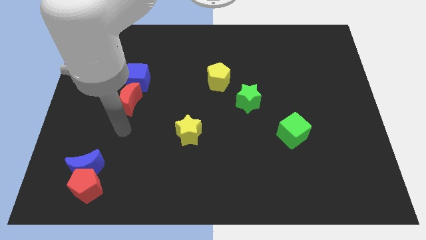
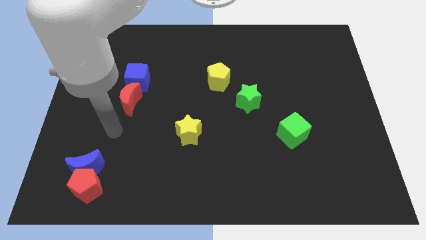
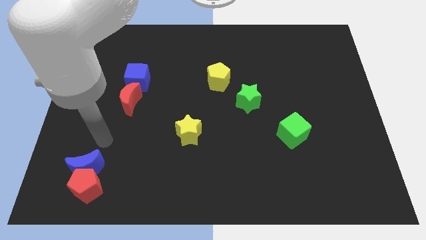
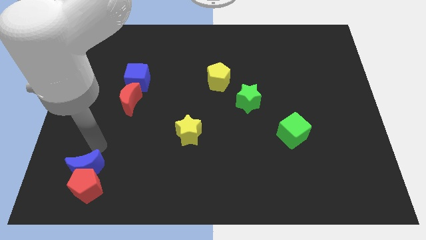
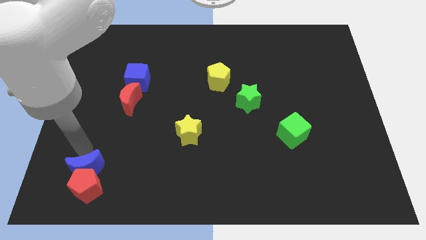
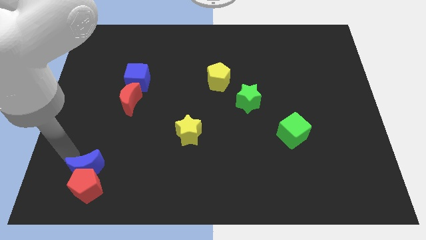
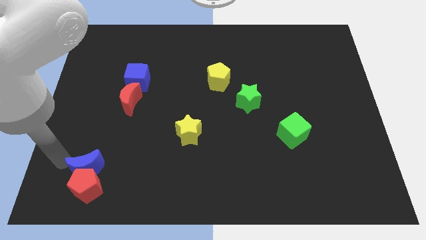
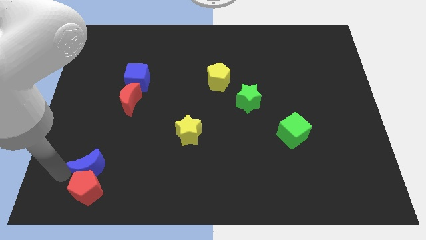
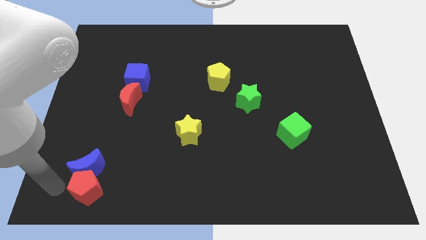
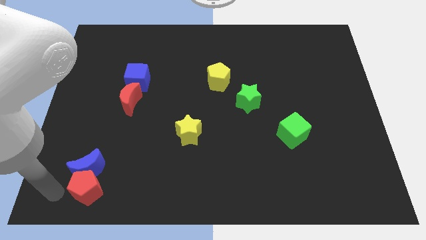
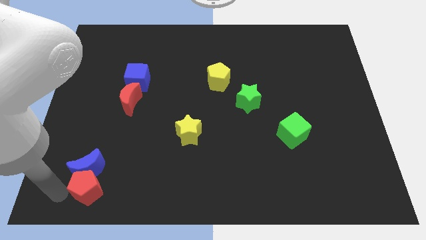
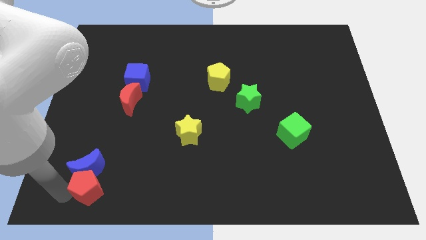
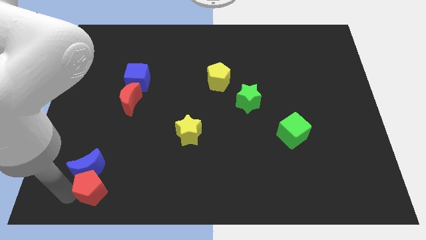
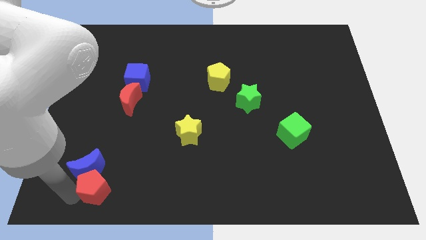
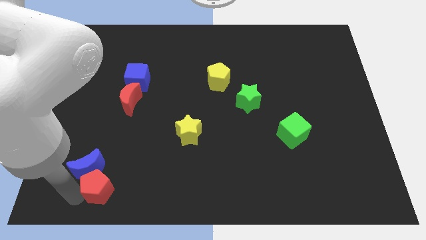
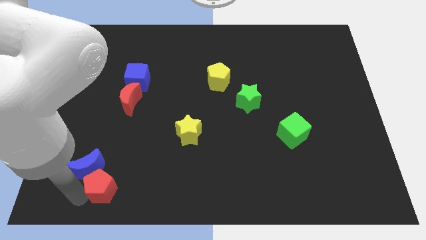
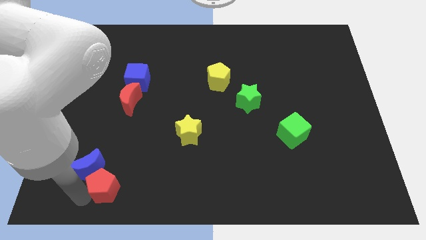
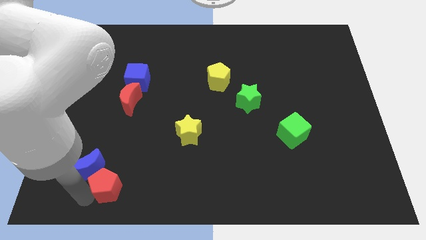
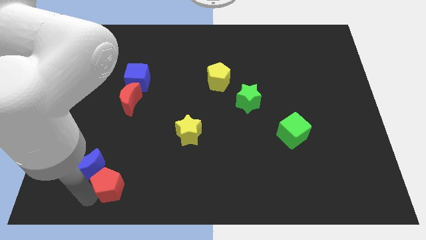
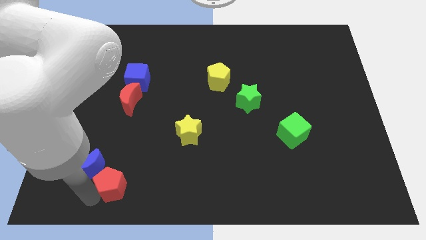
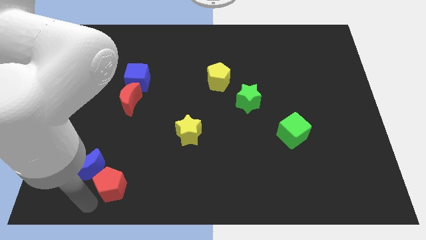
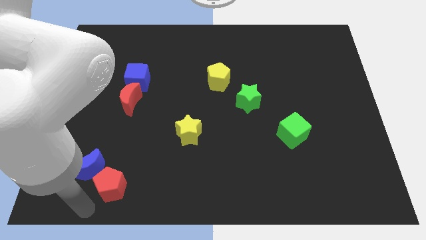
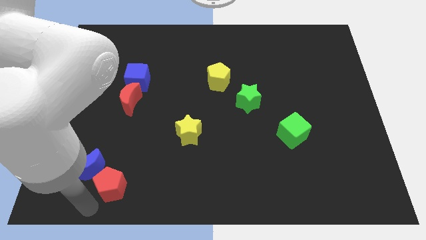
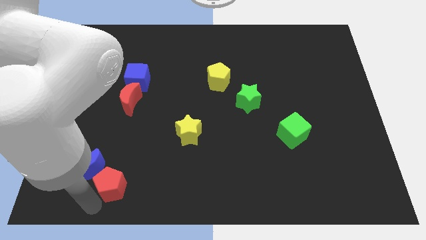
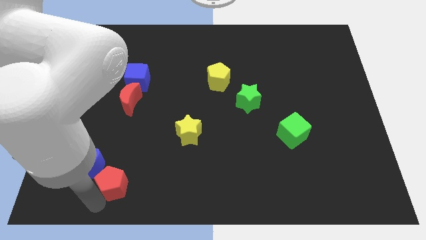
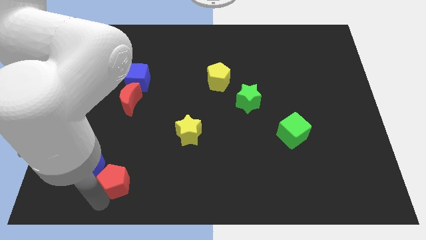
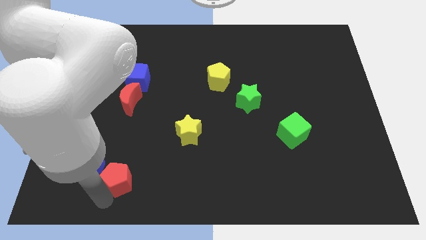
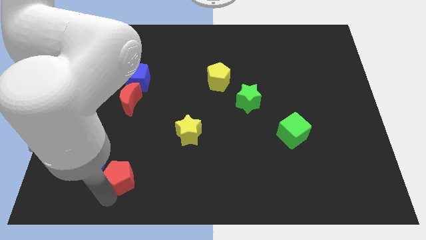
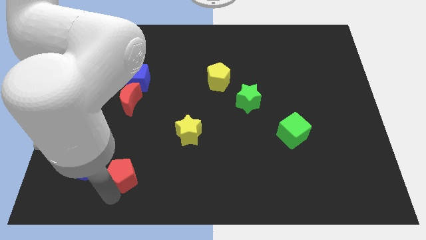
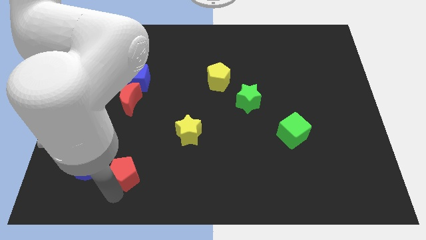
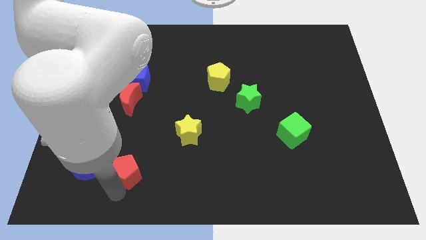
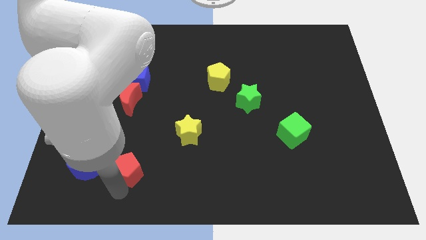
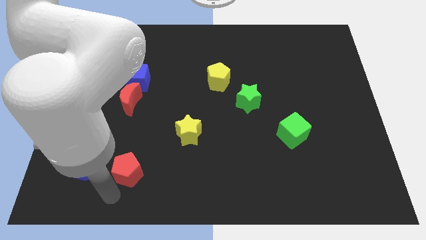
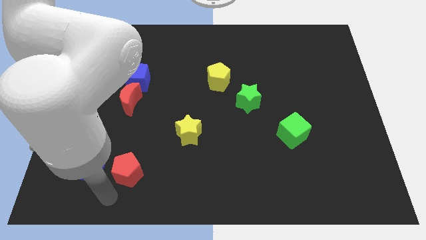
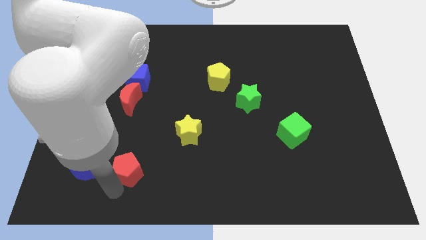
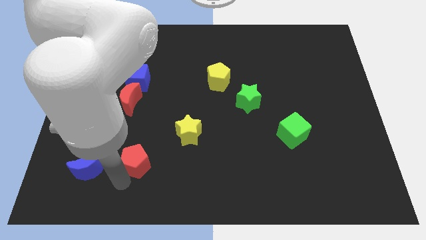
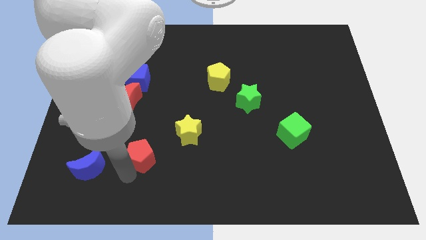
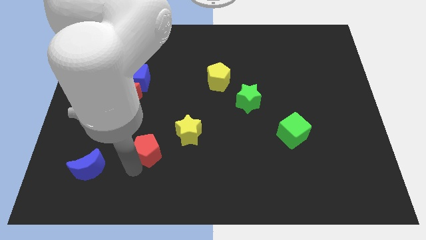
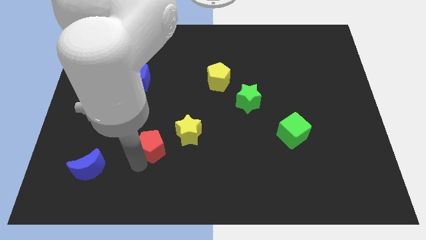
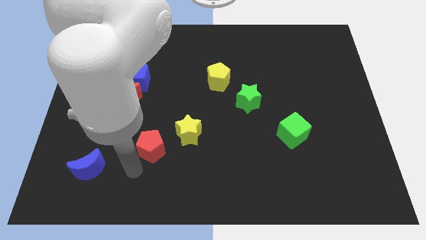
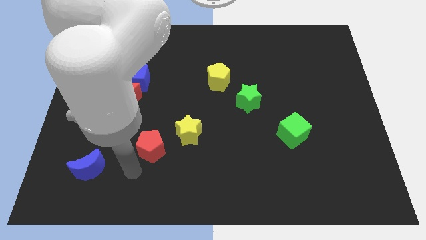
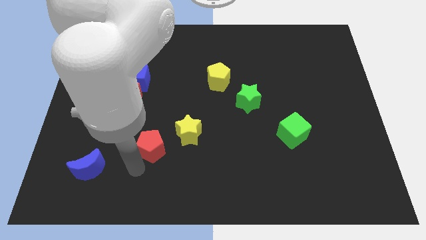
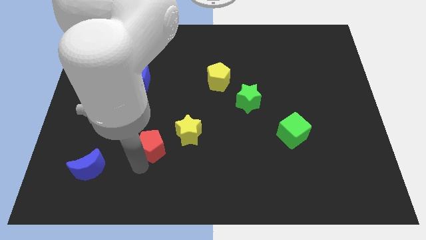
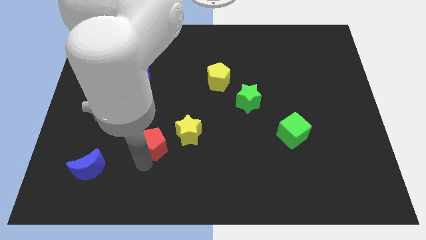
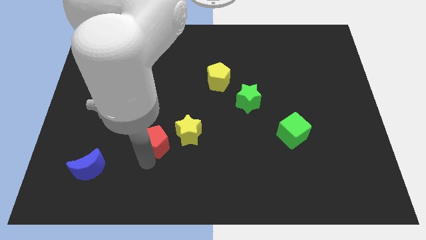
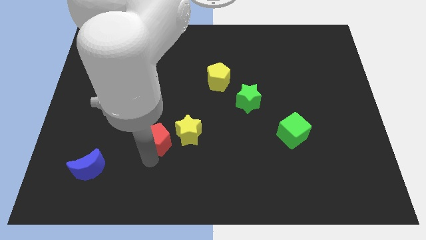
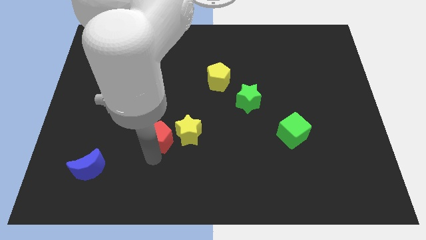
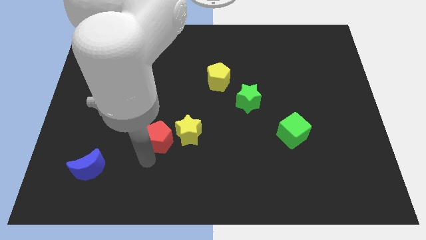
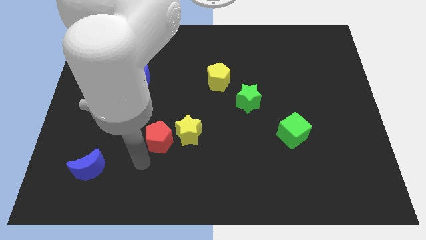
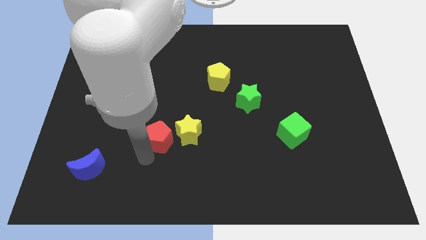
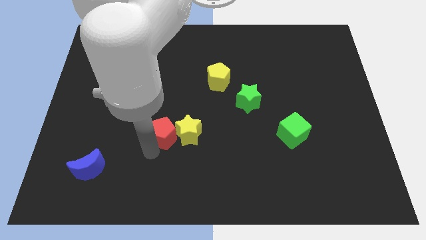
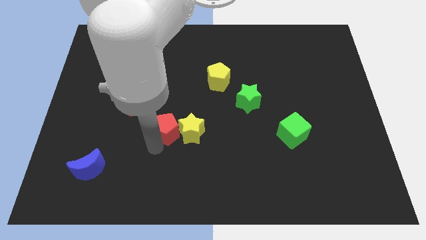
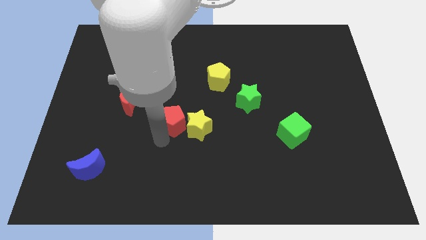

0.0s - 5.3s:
move the red pentagon to the center of the board

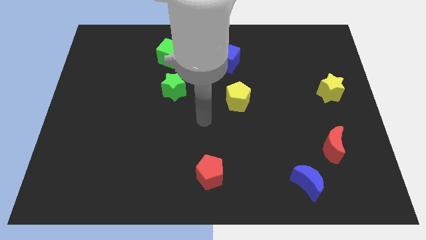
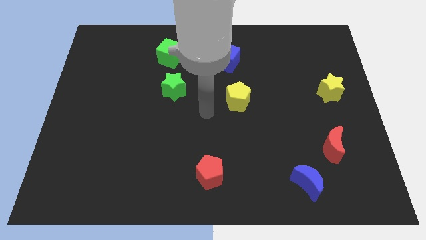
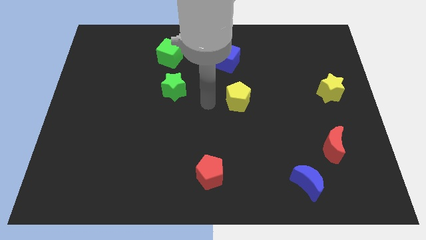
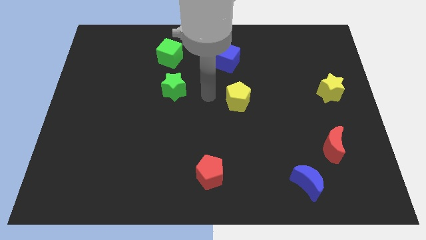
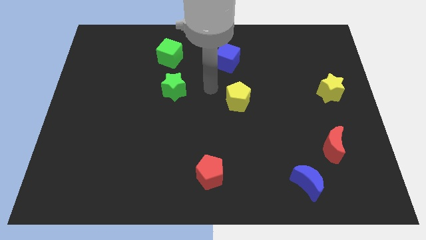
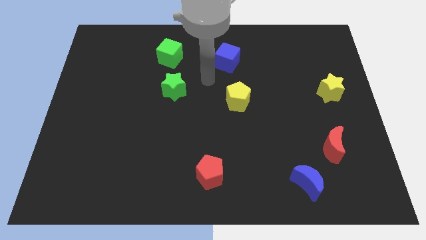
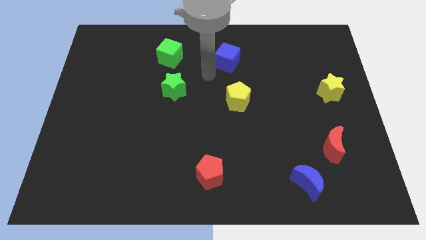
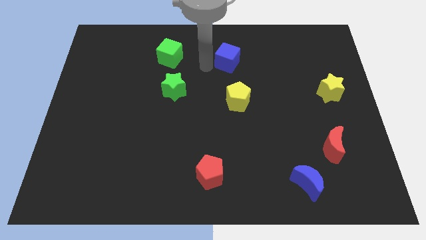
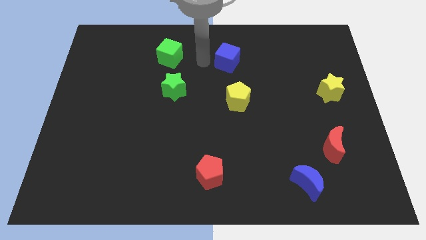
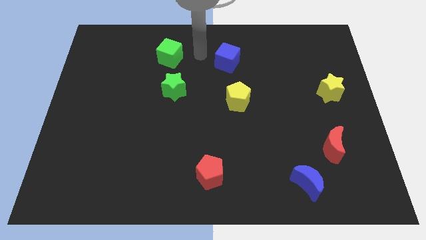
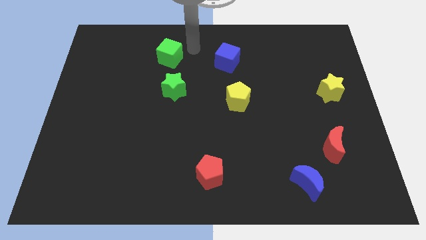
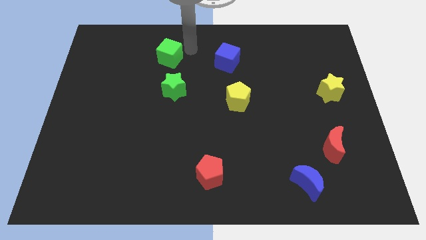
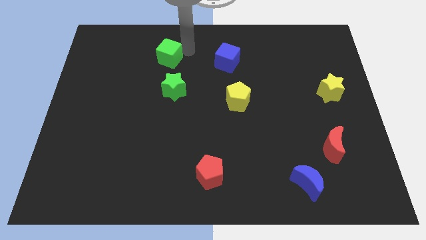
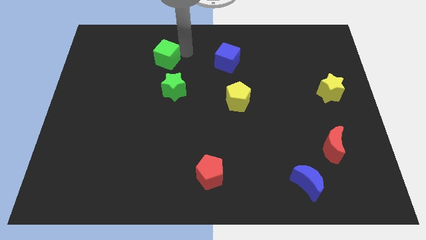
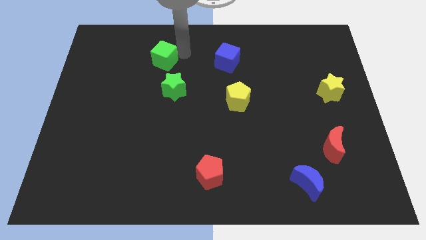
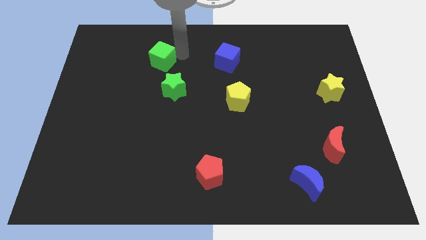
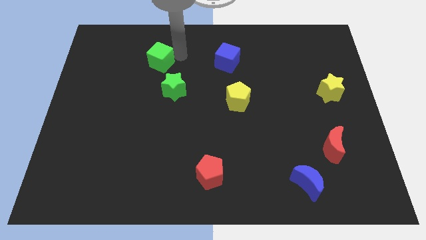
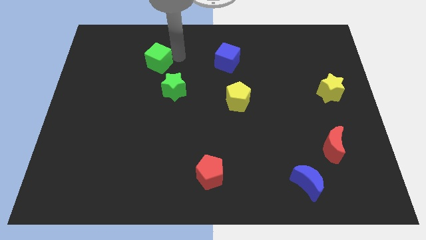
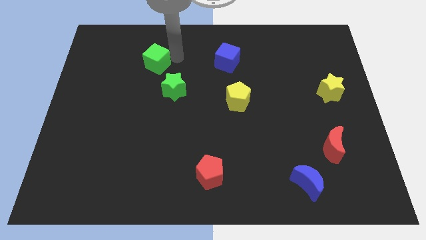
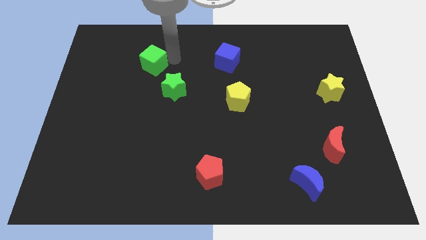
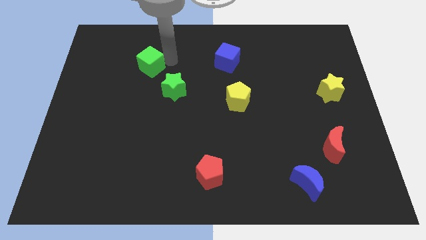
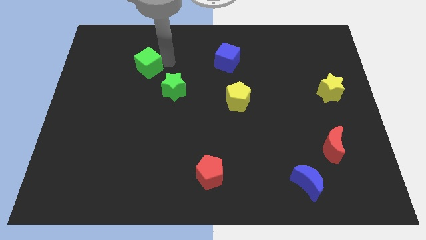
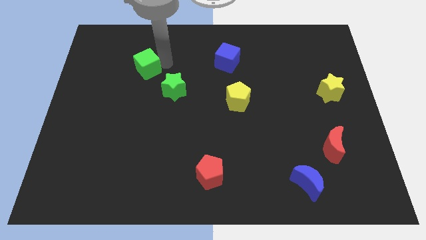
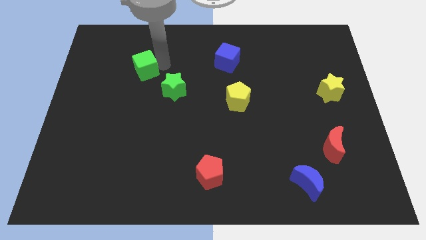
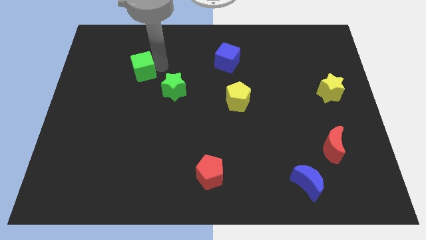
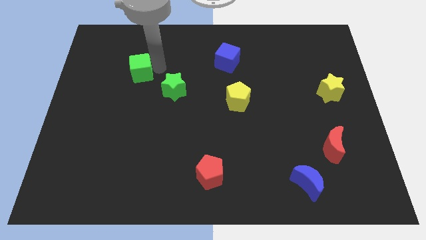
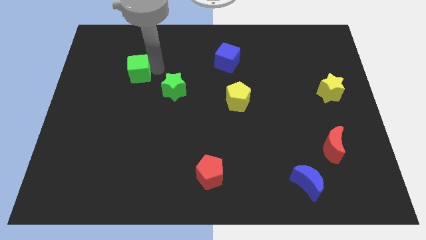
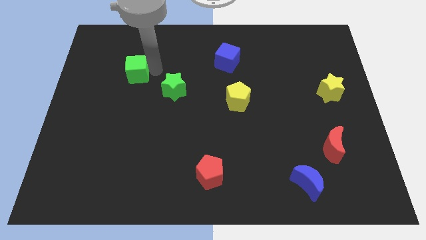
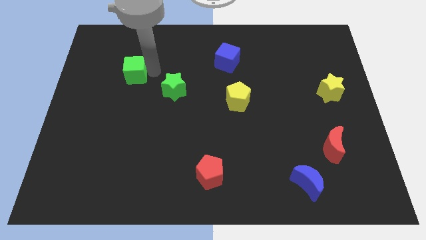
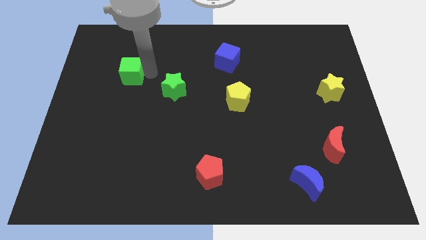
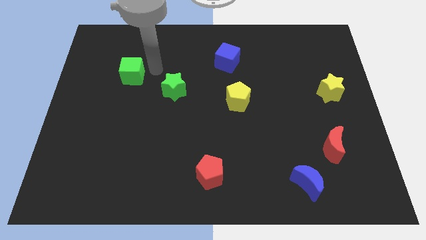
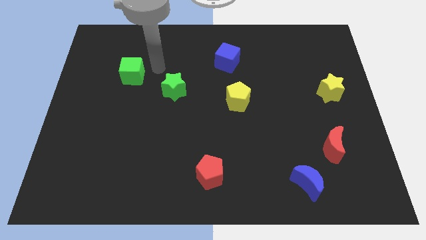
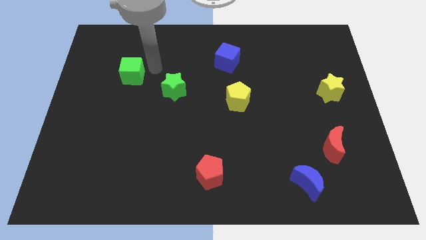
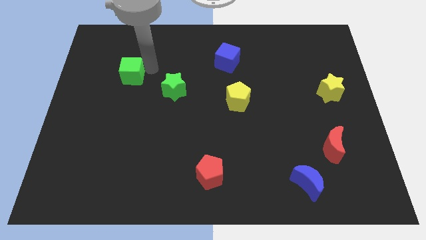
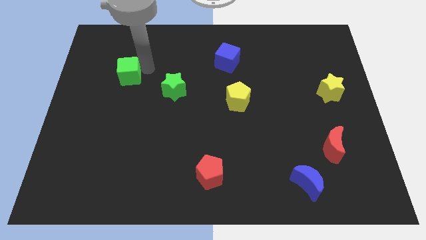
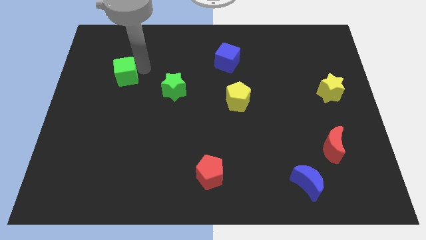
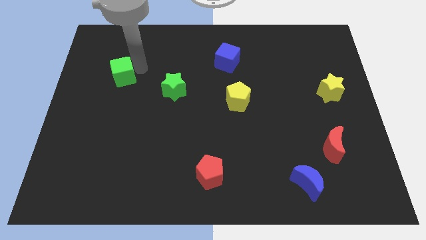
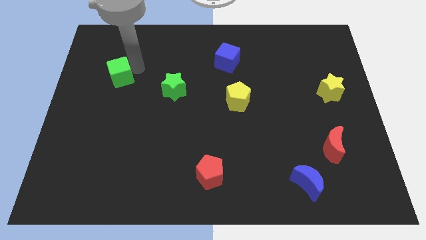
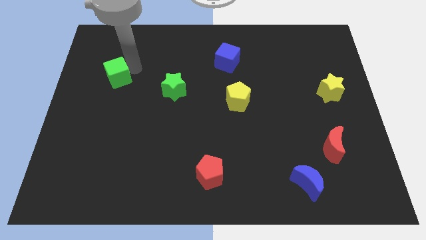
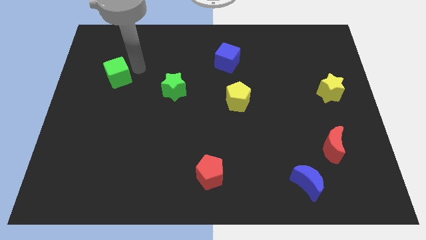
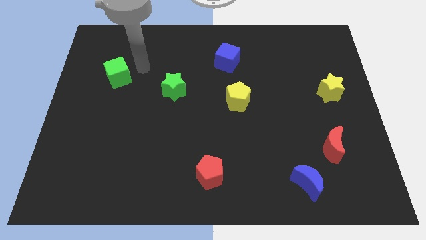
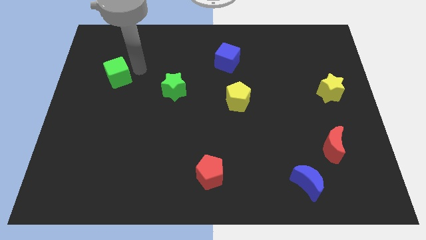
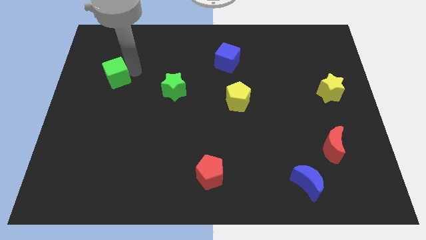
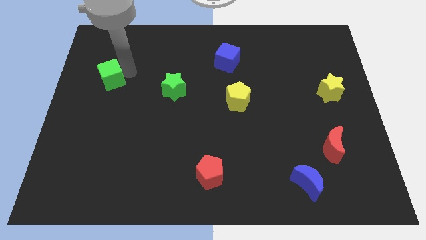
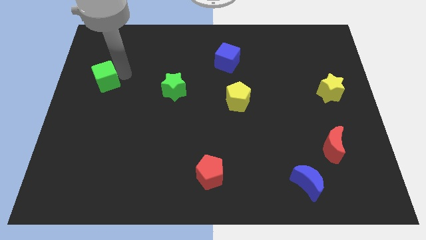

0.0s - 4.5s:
put the green cube to the center left
